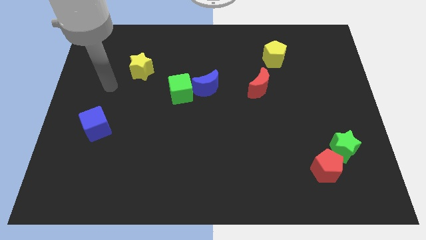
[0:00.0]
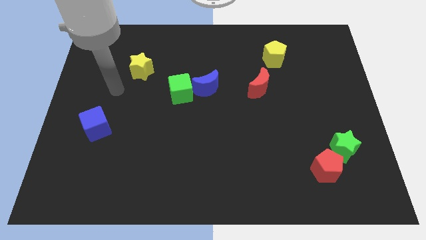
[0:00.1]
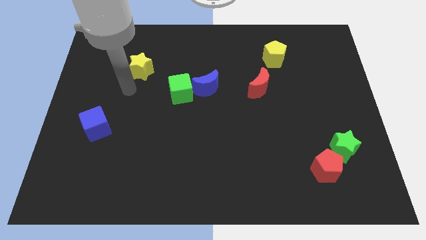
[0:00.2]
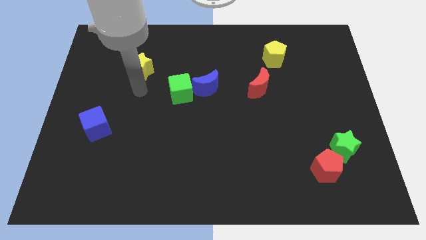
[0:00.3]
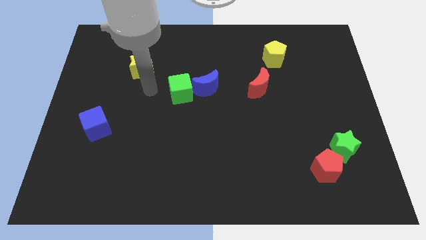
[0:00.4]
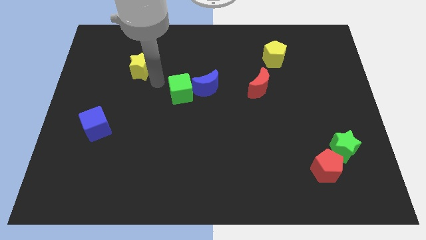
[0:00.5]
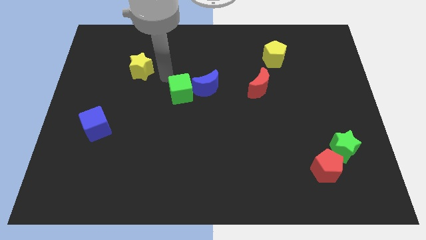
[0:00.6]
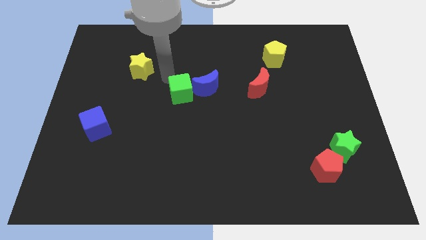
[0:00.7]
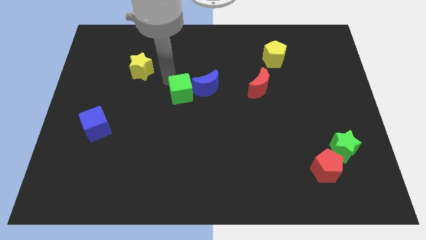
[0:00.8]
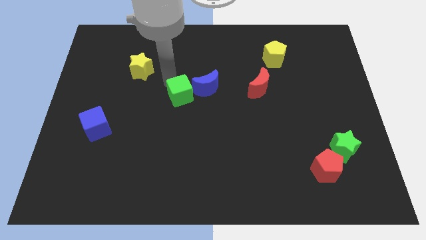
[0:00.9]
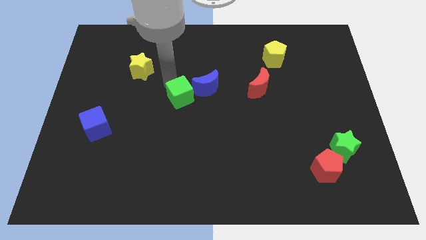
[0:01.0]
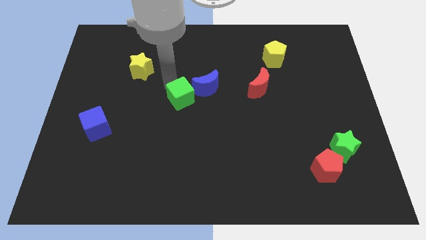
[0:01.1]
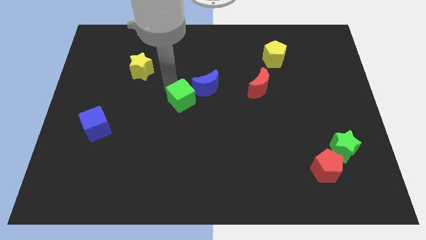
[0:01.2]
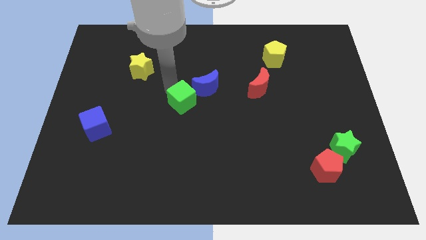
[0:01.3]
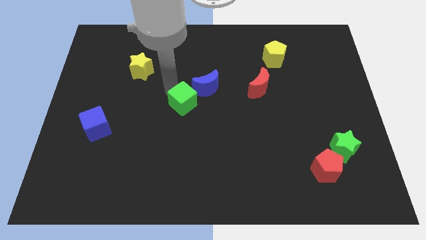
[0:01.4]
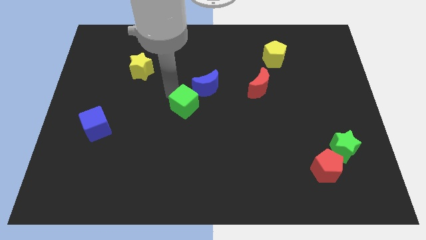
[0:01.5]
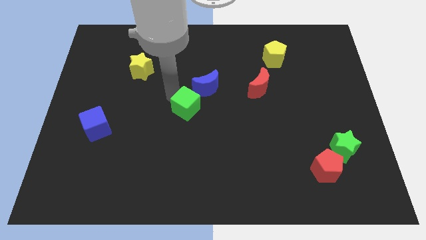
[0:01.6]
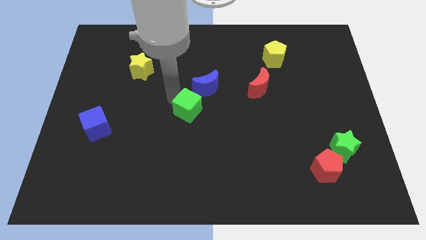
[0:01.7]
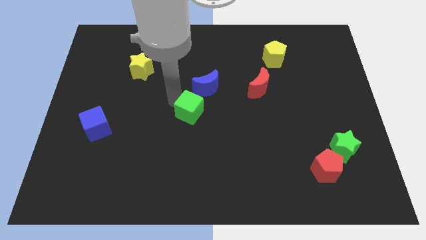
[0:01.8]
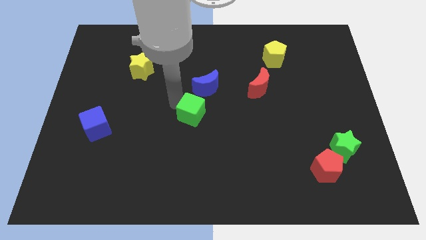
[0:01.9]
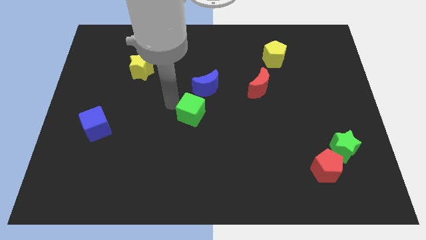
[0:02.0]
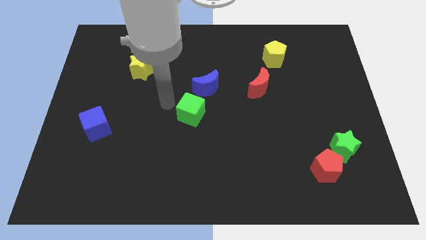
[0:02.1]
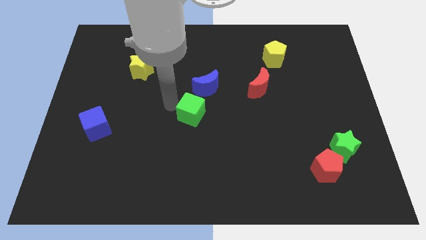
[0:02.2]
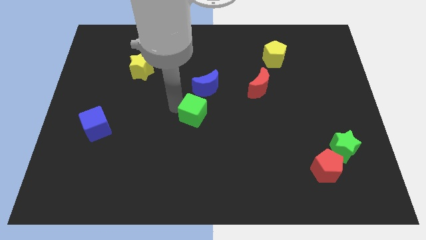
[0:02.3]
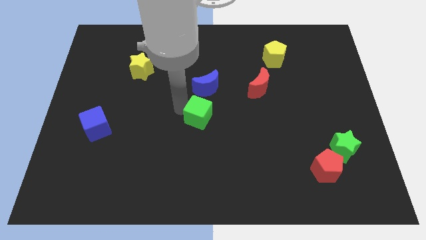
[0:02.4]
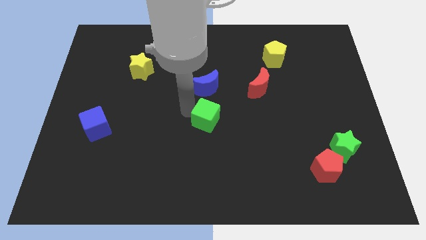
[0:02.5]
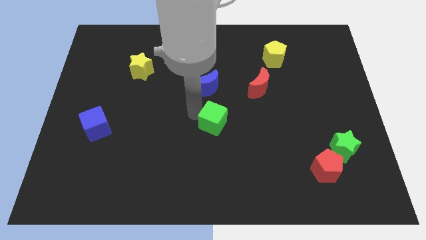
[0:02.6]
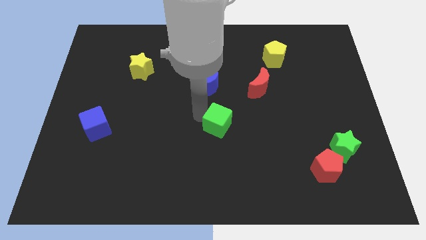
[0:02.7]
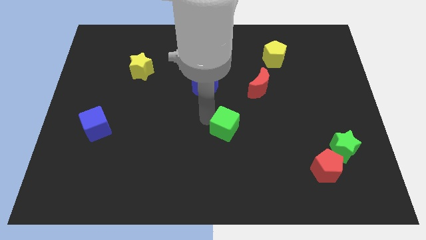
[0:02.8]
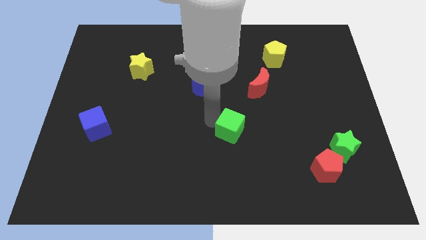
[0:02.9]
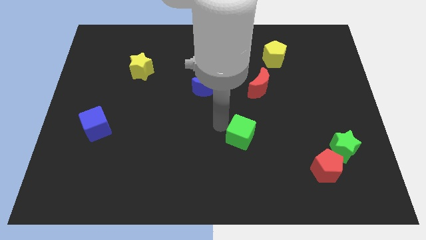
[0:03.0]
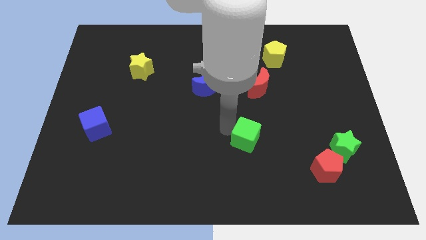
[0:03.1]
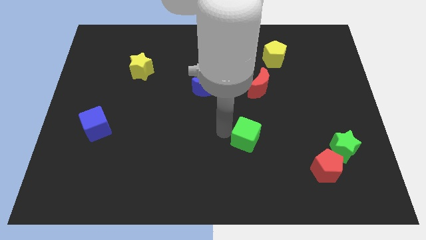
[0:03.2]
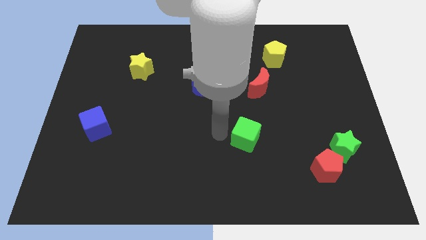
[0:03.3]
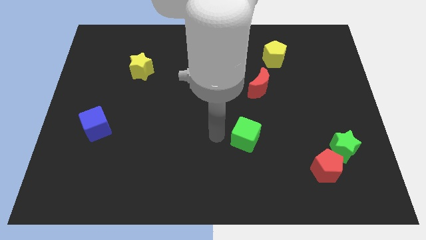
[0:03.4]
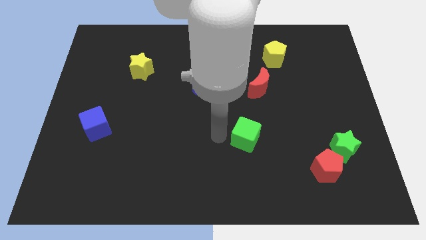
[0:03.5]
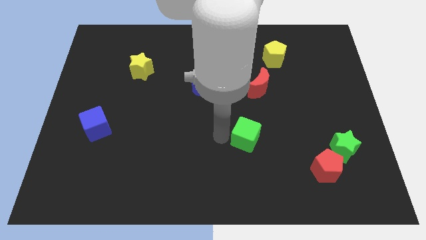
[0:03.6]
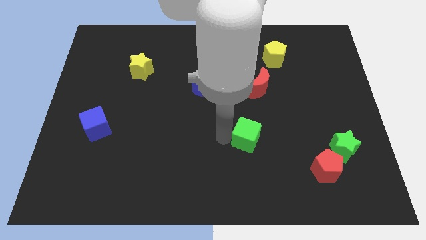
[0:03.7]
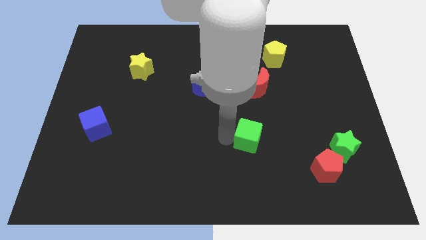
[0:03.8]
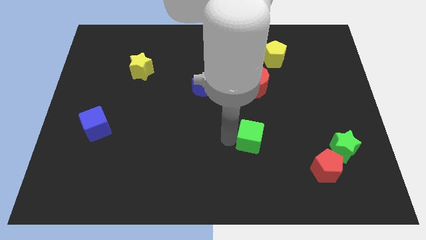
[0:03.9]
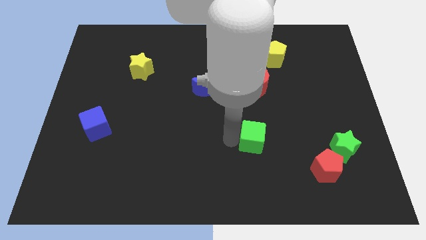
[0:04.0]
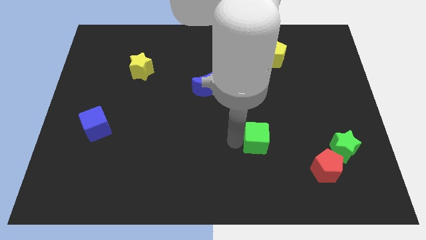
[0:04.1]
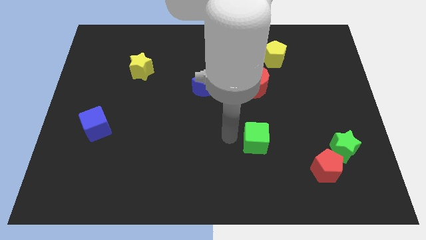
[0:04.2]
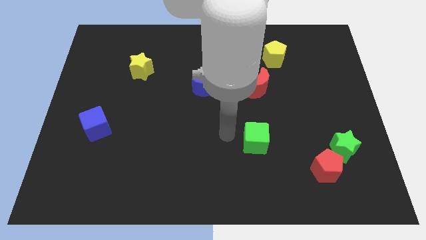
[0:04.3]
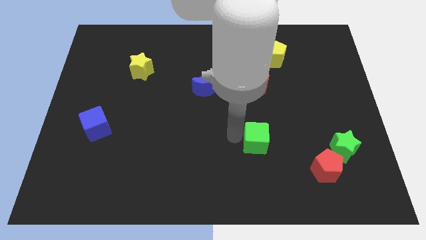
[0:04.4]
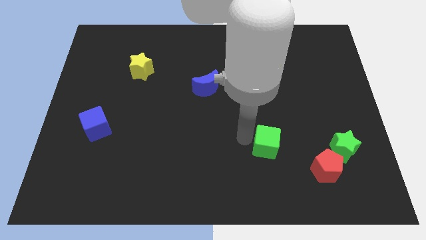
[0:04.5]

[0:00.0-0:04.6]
push the green cube just left of the green star

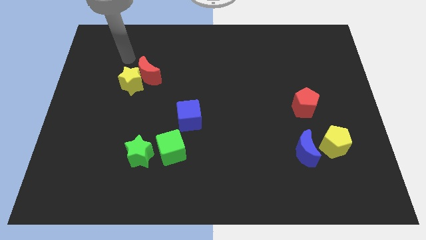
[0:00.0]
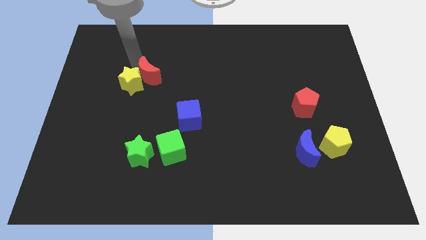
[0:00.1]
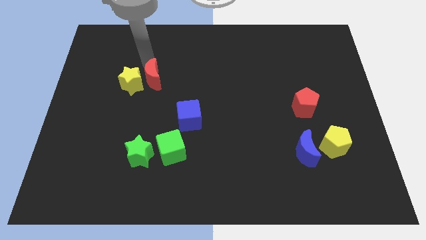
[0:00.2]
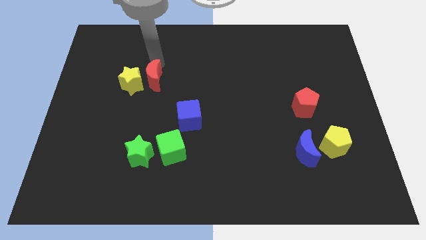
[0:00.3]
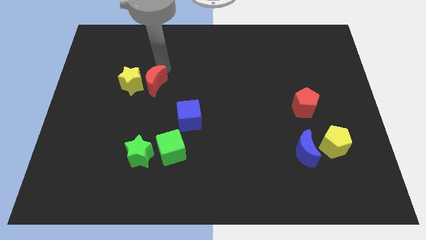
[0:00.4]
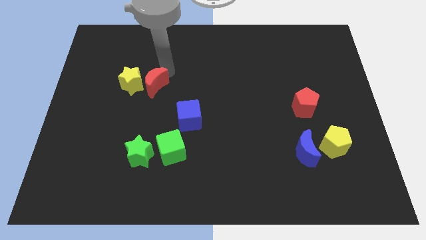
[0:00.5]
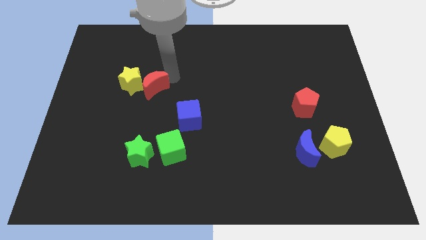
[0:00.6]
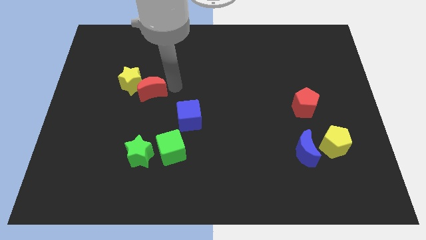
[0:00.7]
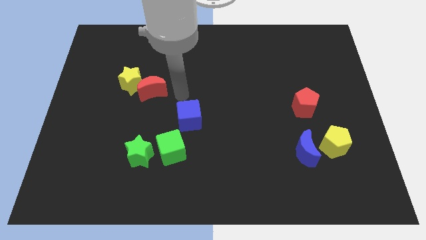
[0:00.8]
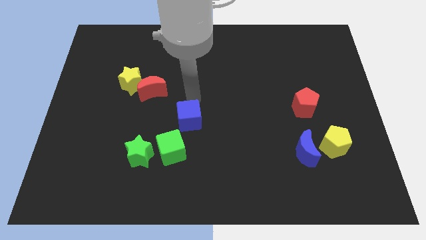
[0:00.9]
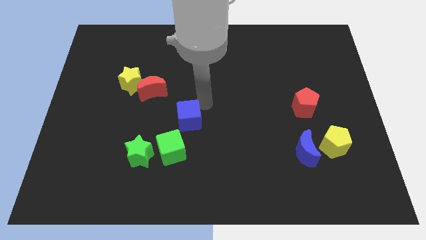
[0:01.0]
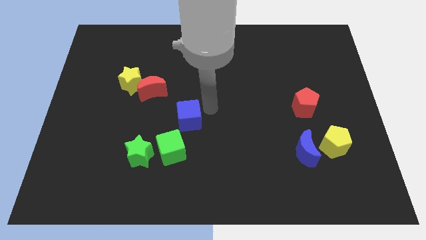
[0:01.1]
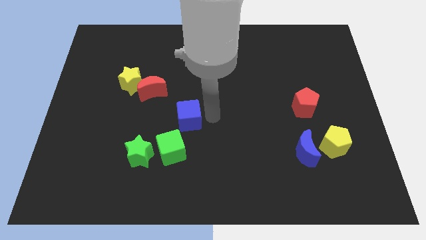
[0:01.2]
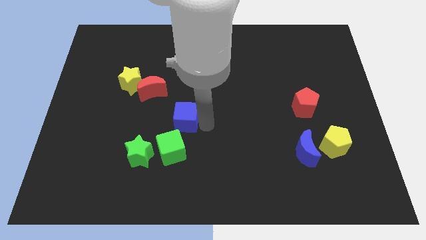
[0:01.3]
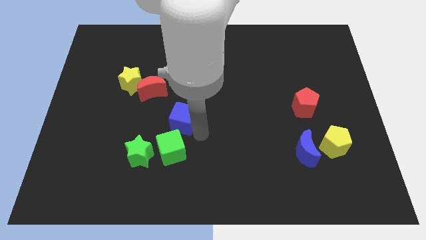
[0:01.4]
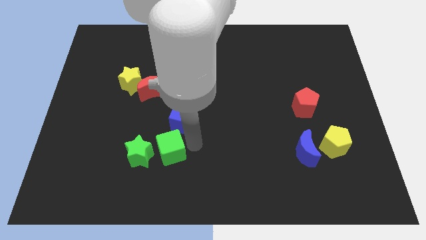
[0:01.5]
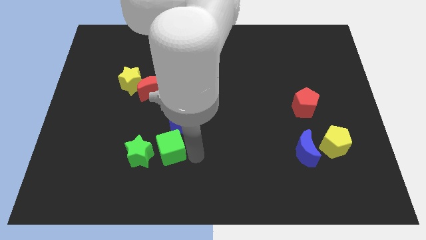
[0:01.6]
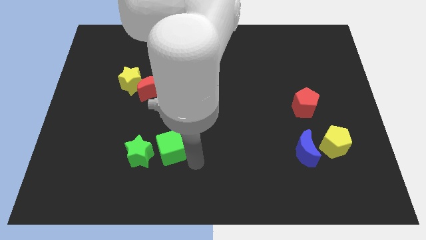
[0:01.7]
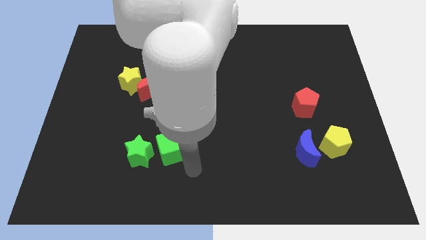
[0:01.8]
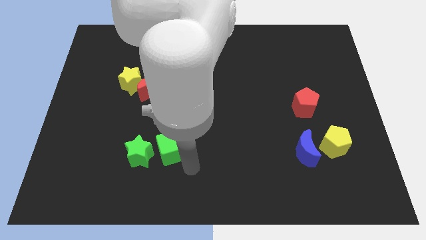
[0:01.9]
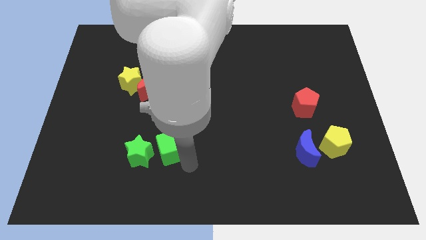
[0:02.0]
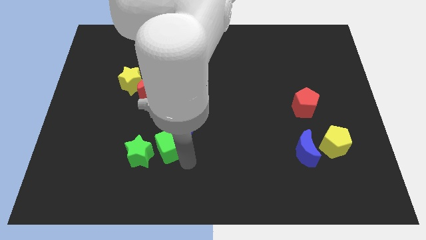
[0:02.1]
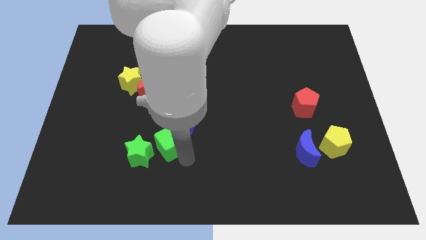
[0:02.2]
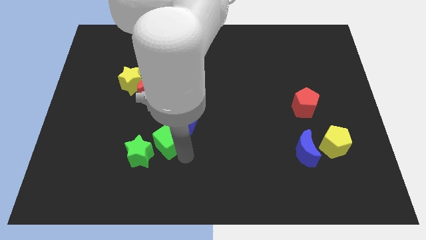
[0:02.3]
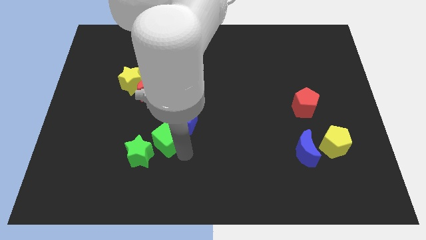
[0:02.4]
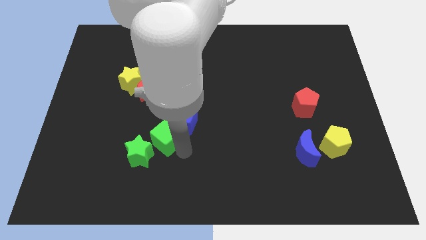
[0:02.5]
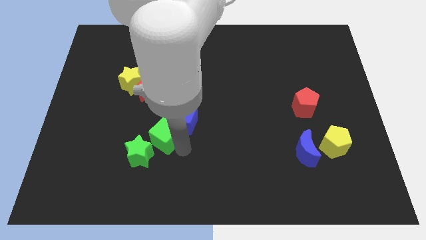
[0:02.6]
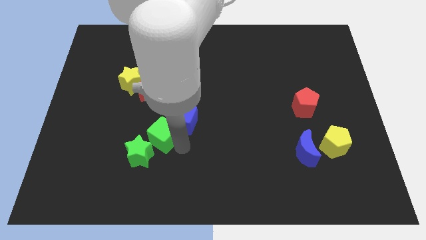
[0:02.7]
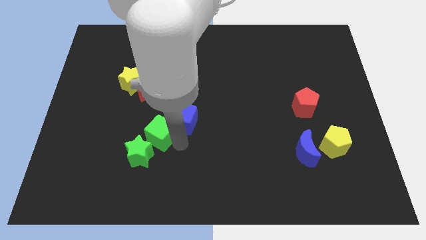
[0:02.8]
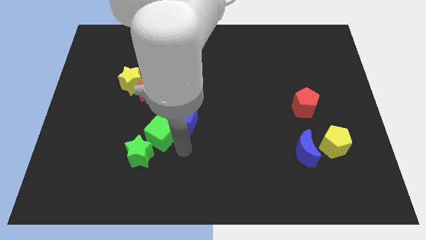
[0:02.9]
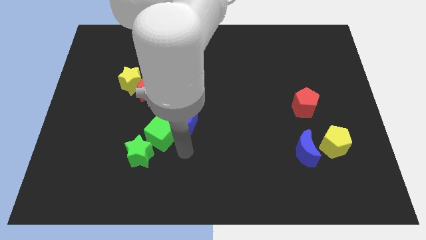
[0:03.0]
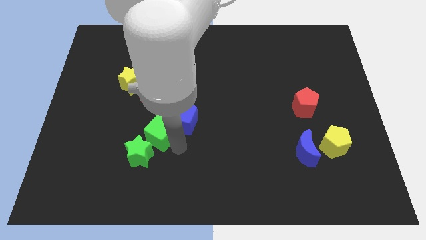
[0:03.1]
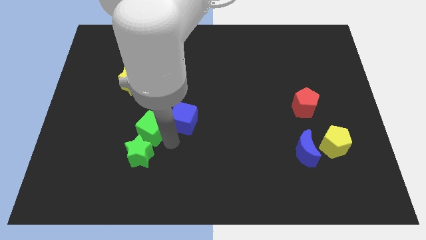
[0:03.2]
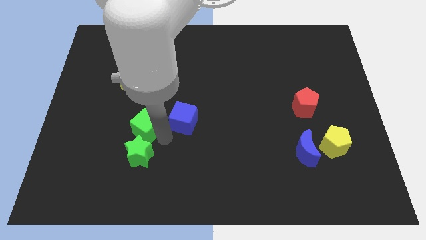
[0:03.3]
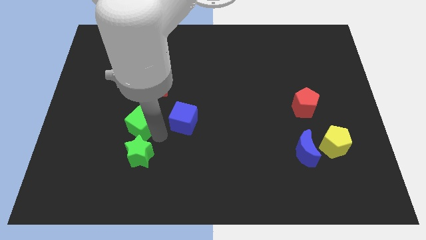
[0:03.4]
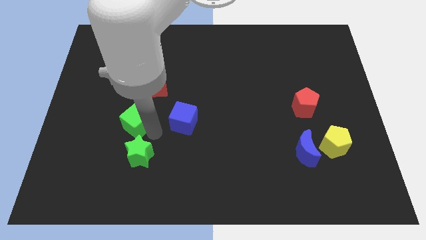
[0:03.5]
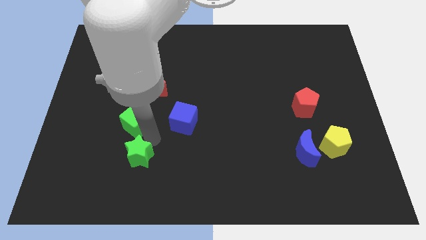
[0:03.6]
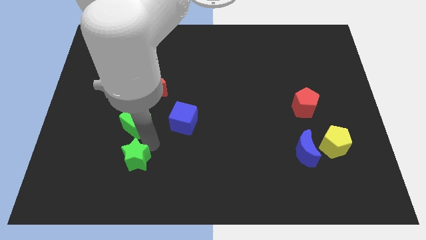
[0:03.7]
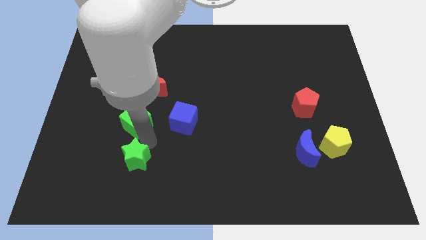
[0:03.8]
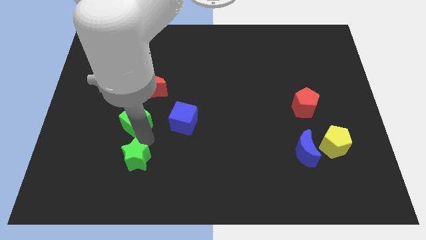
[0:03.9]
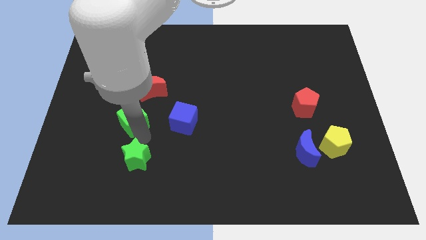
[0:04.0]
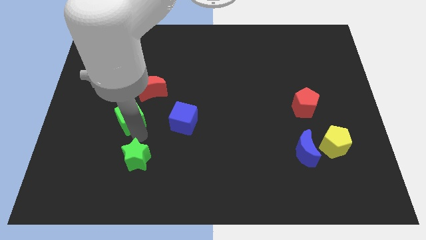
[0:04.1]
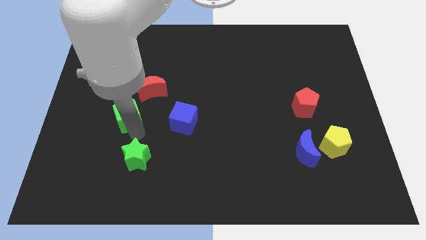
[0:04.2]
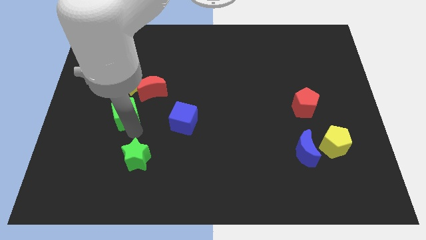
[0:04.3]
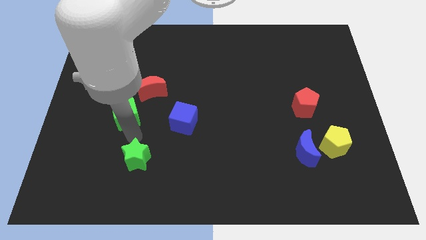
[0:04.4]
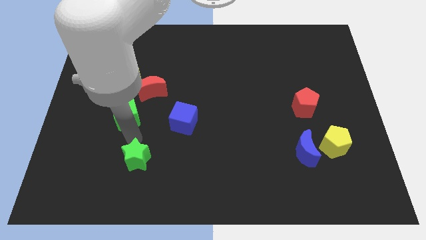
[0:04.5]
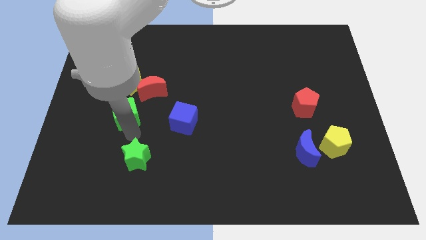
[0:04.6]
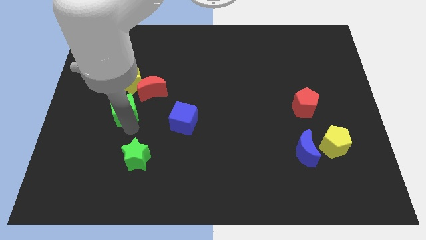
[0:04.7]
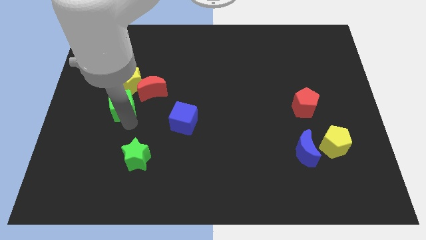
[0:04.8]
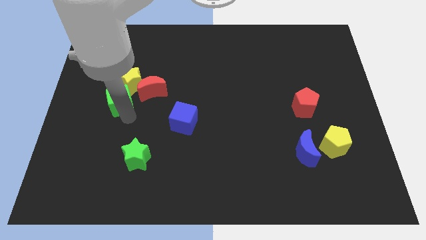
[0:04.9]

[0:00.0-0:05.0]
move the green cube just left of the red moon
